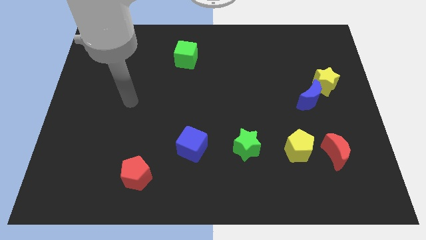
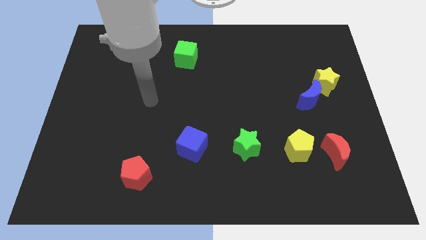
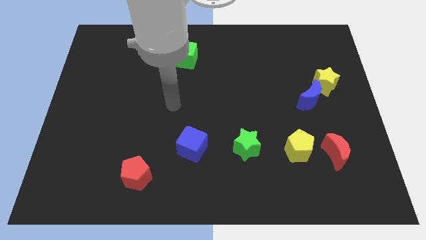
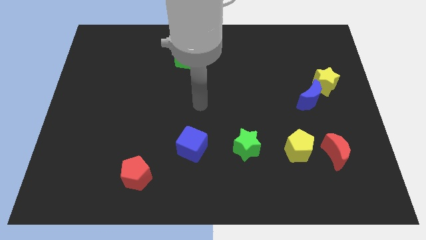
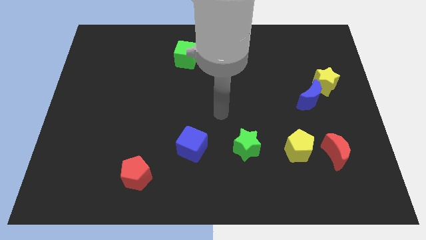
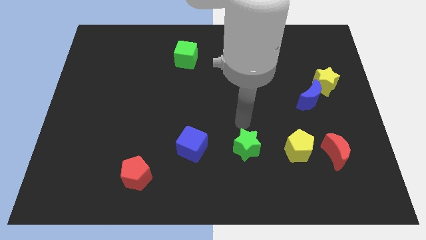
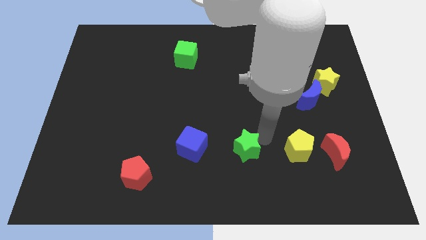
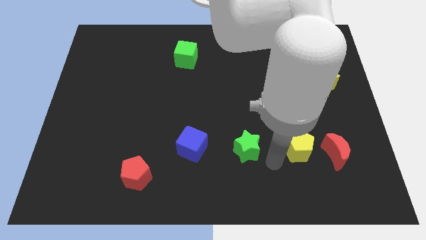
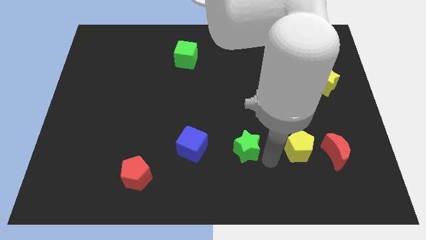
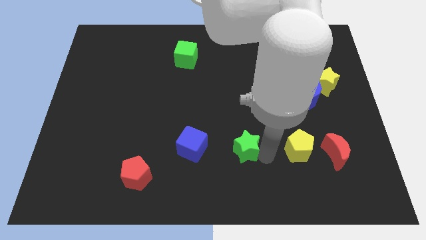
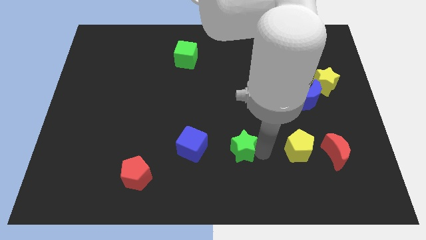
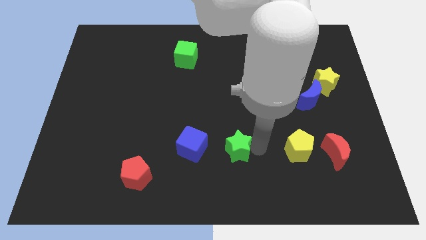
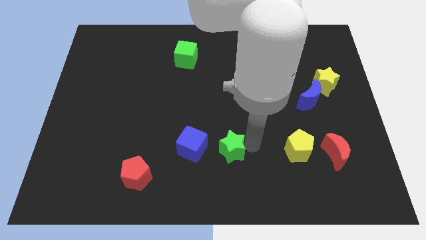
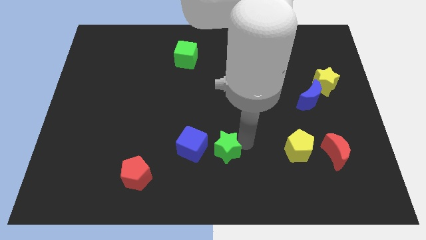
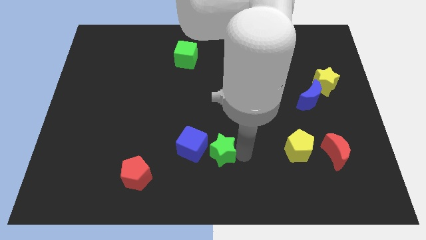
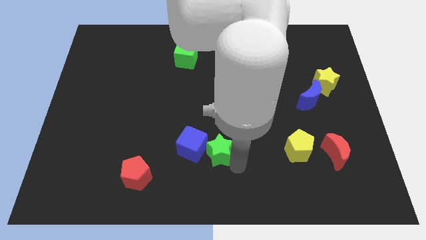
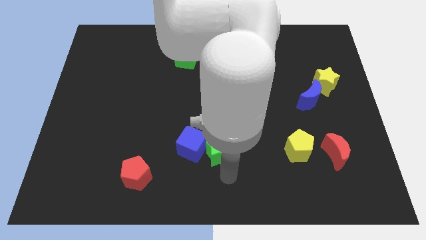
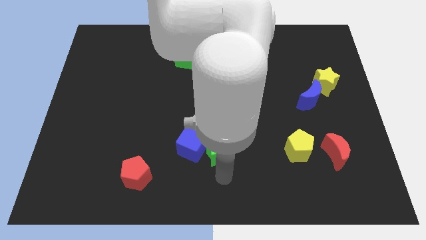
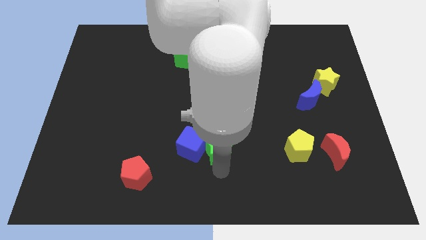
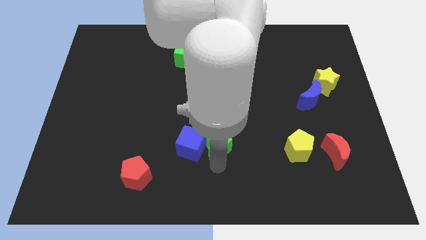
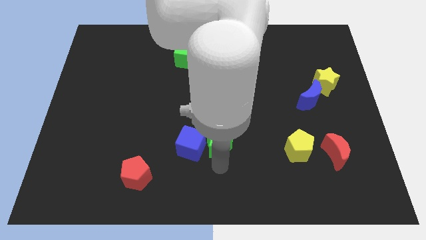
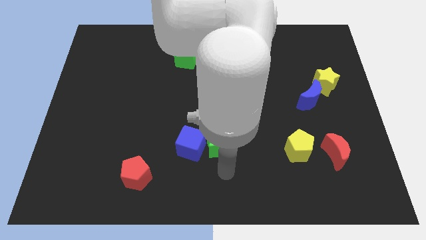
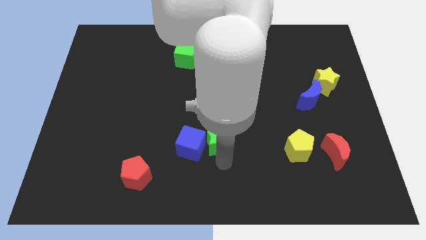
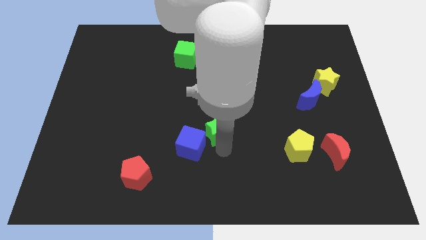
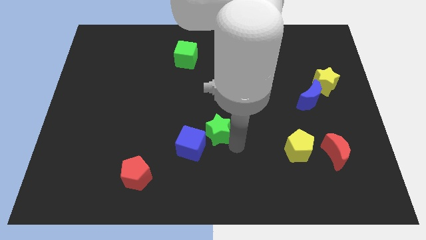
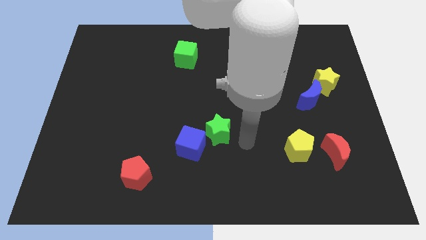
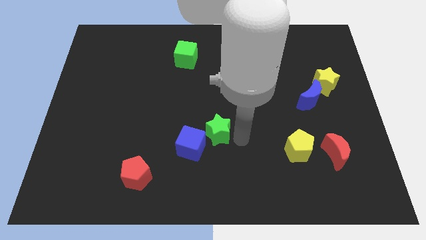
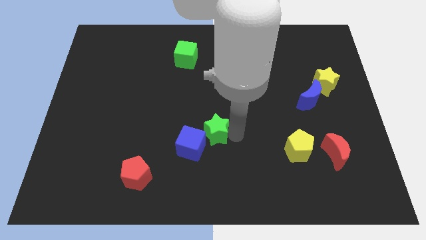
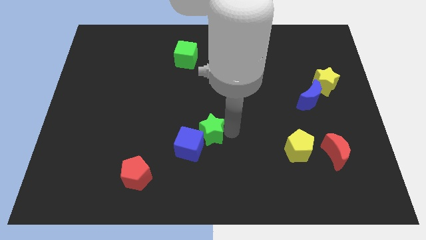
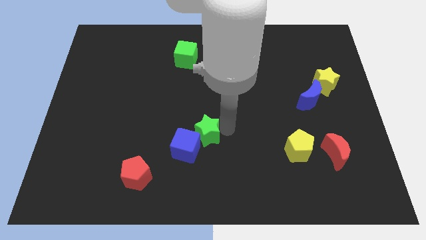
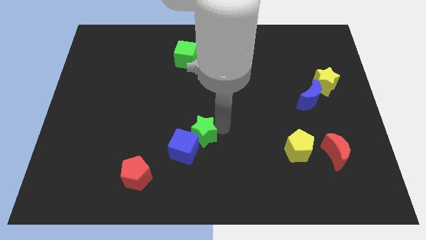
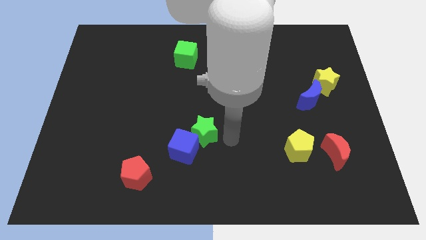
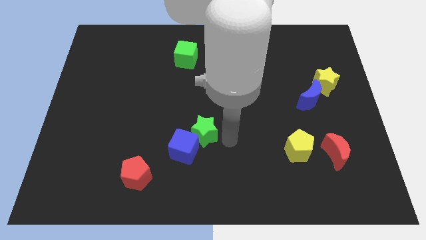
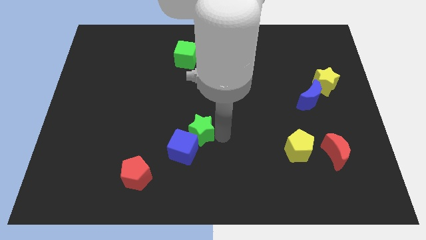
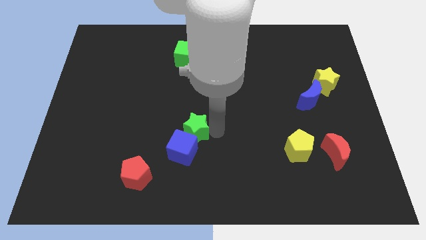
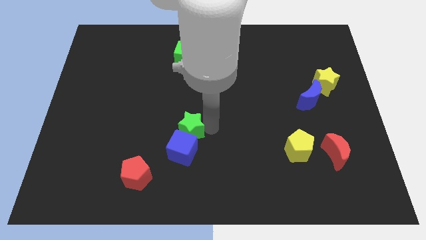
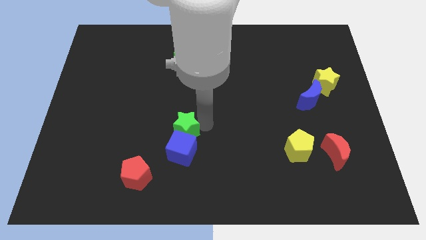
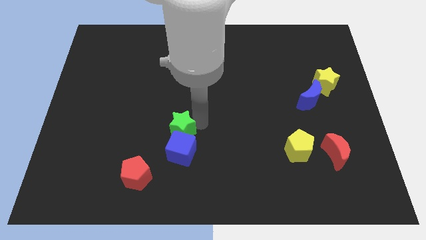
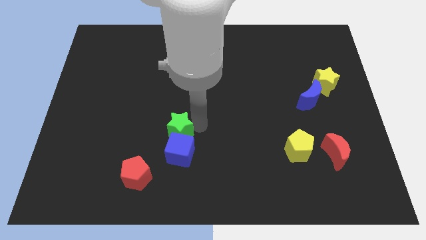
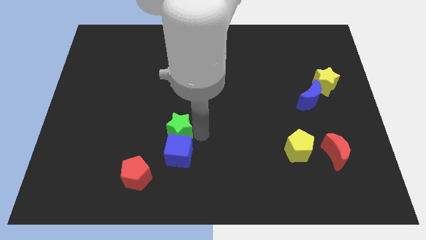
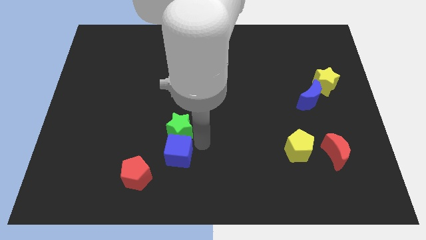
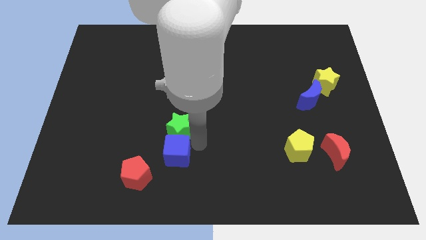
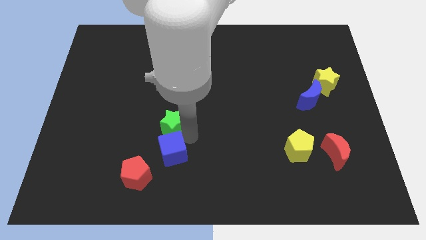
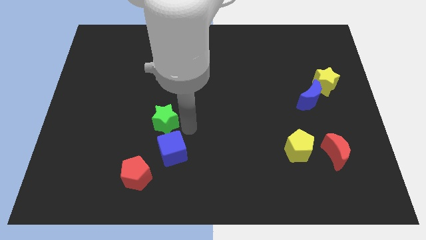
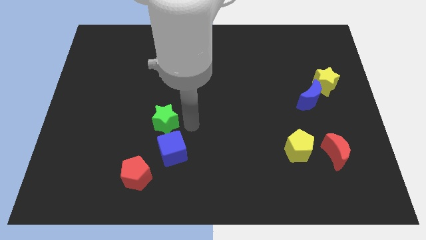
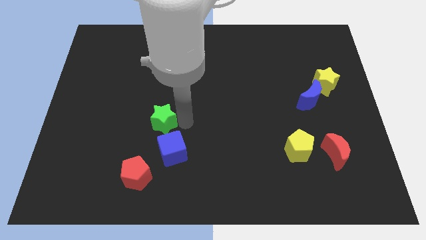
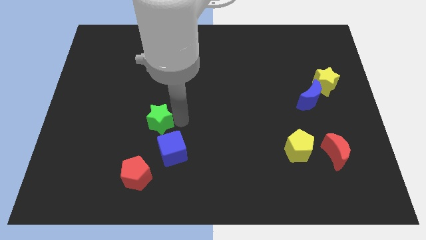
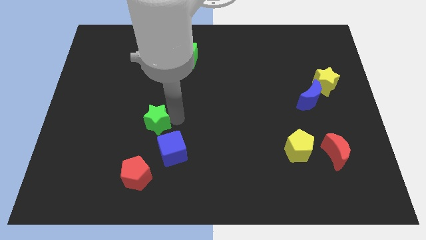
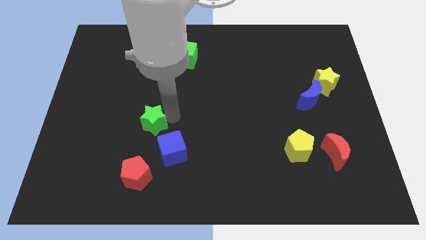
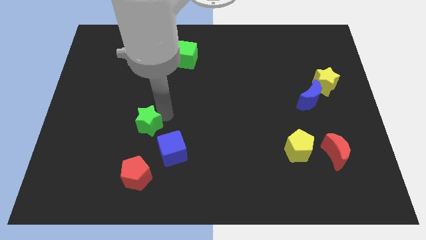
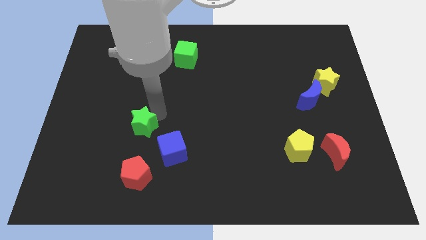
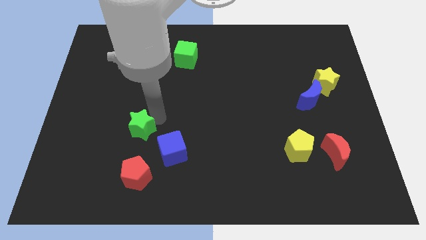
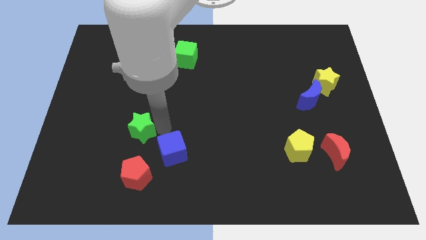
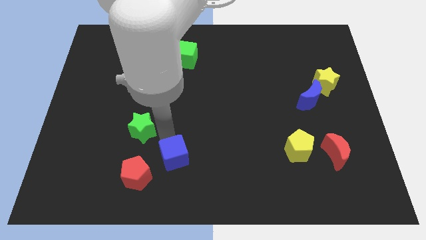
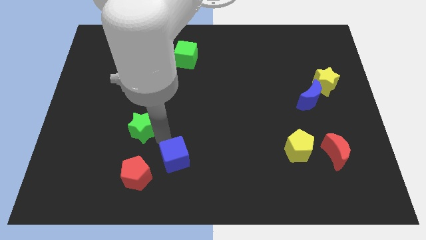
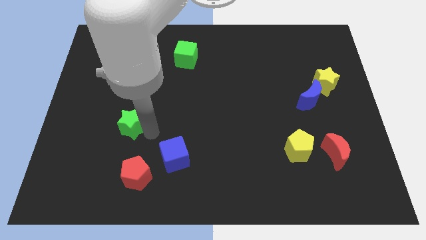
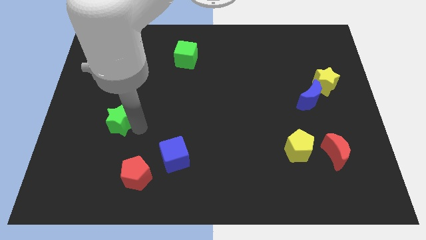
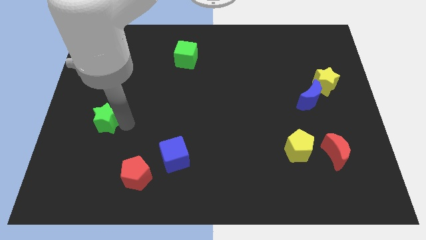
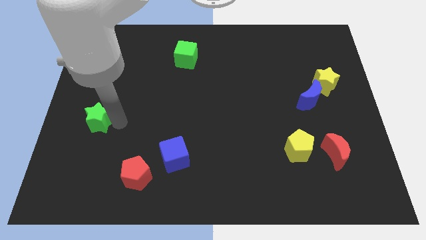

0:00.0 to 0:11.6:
move the green star to the center left
